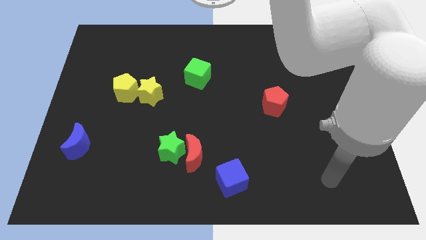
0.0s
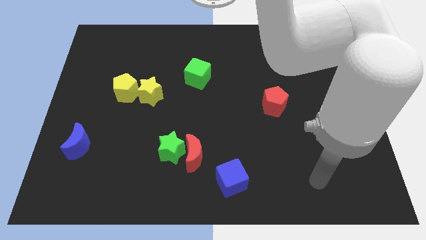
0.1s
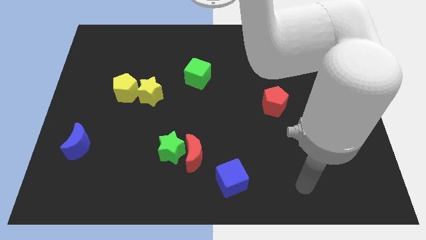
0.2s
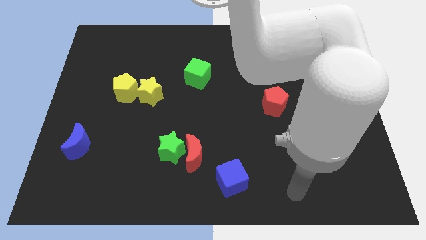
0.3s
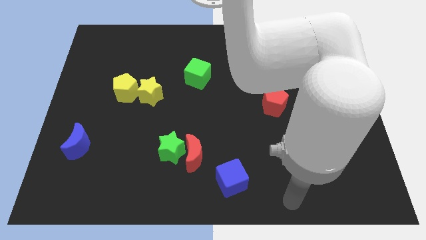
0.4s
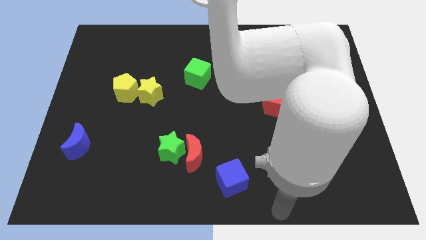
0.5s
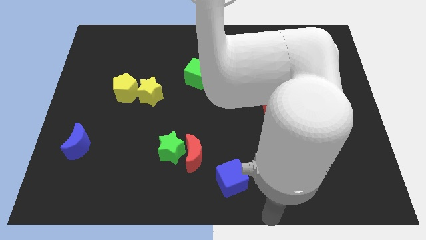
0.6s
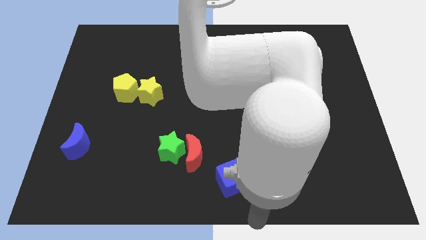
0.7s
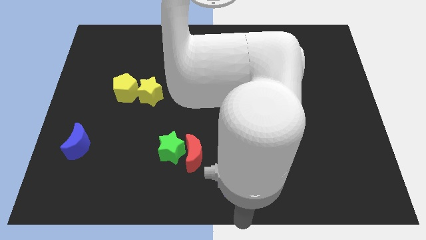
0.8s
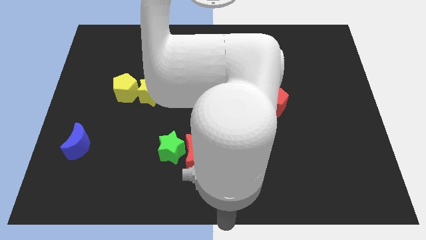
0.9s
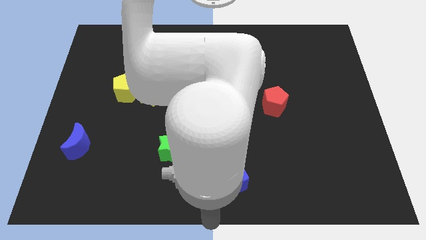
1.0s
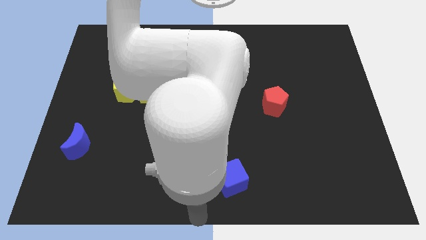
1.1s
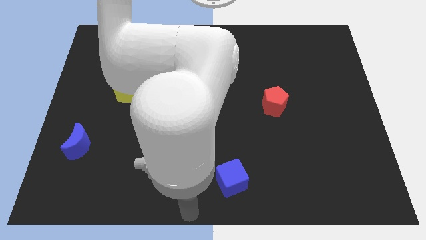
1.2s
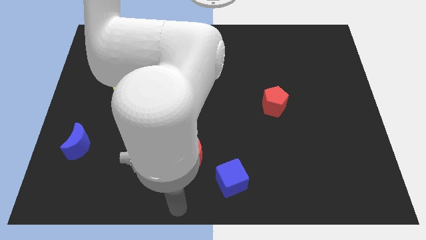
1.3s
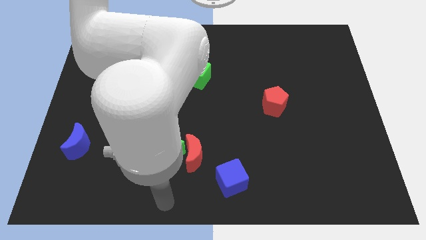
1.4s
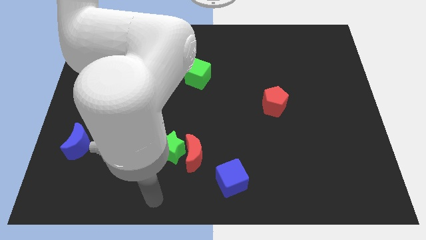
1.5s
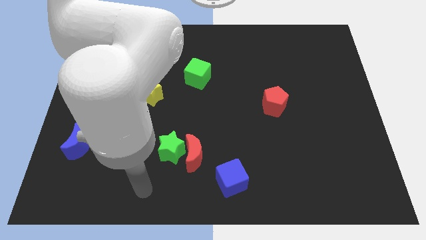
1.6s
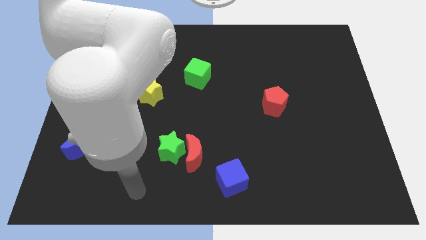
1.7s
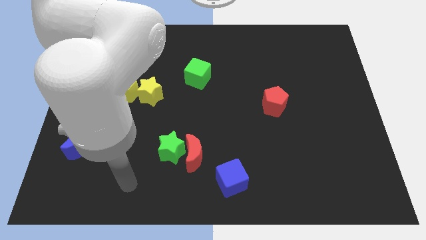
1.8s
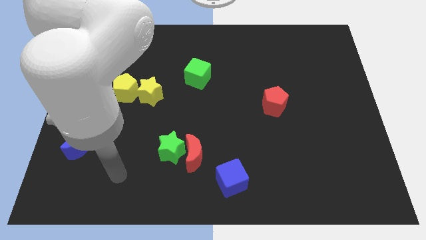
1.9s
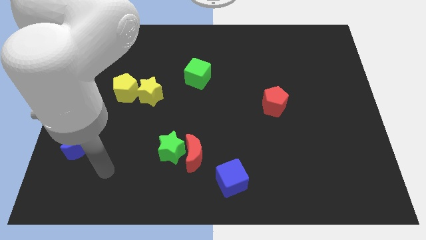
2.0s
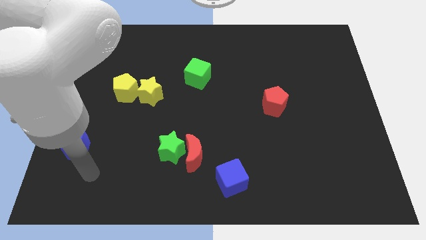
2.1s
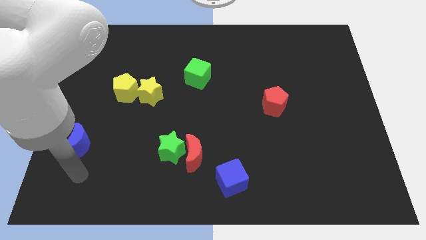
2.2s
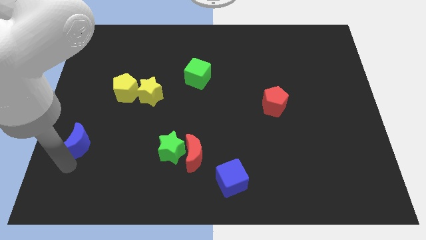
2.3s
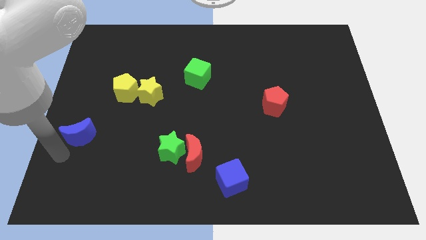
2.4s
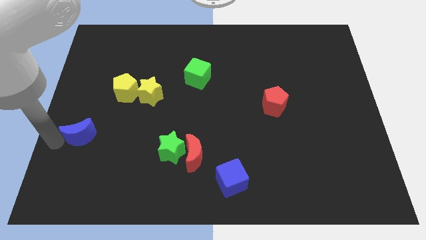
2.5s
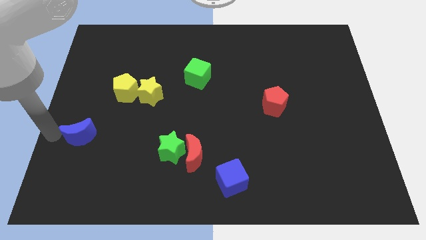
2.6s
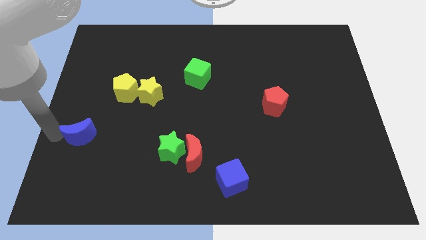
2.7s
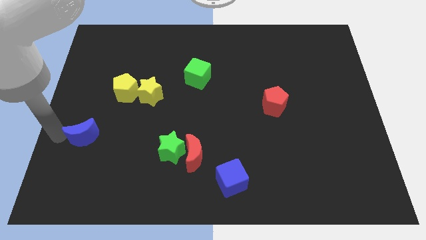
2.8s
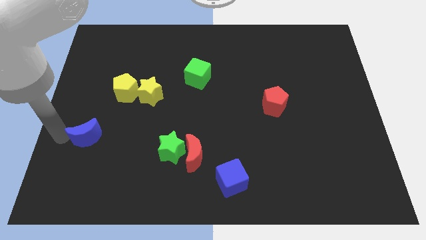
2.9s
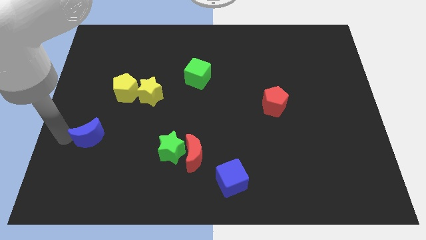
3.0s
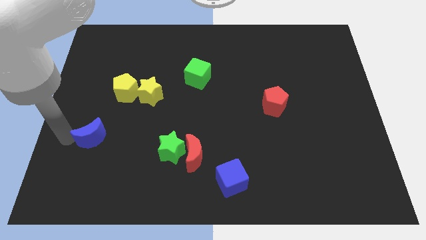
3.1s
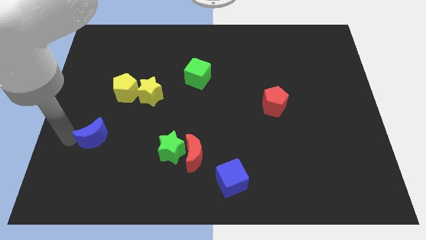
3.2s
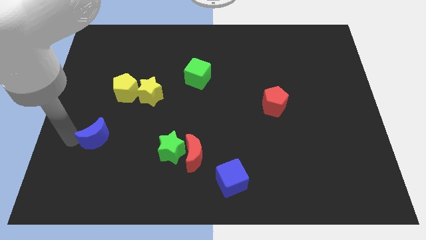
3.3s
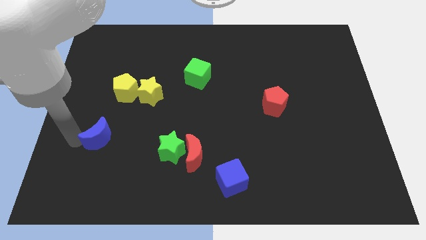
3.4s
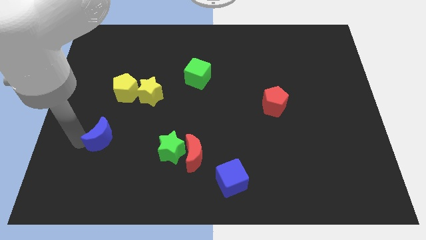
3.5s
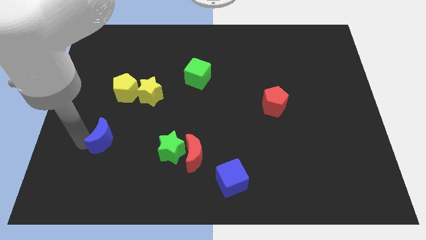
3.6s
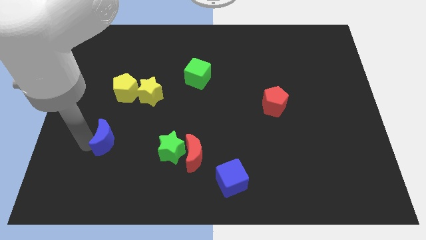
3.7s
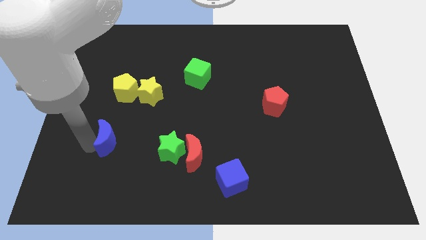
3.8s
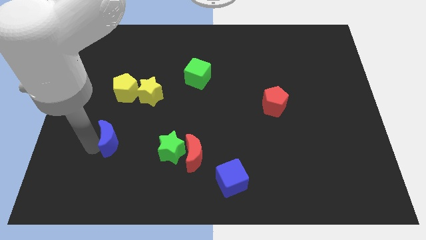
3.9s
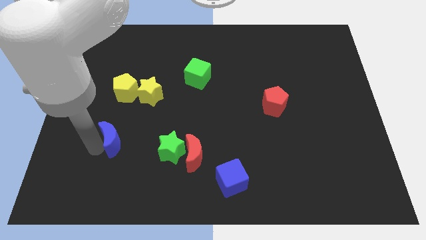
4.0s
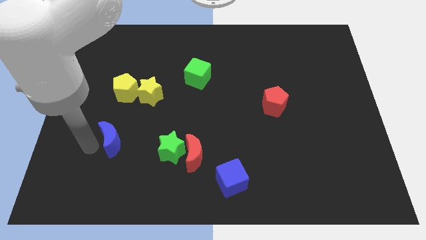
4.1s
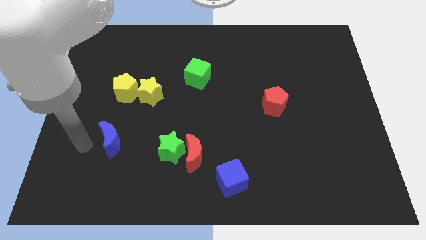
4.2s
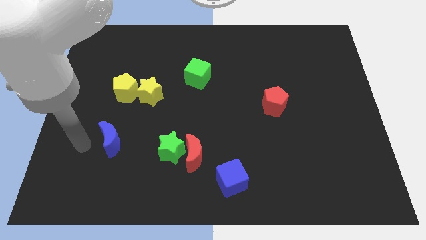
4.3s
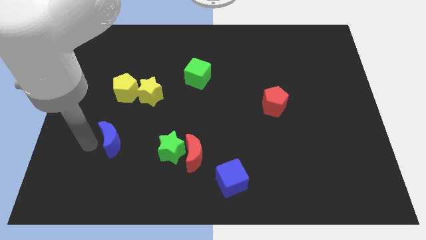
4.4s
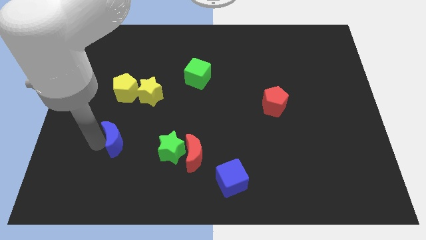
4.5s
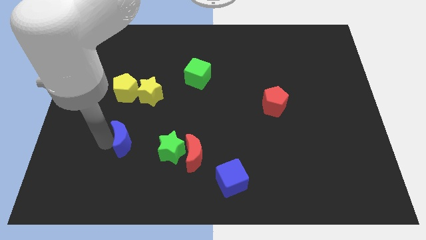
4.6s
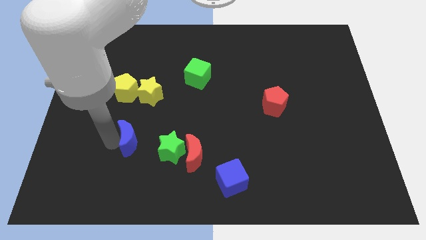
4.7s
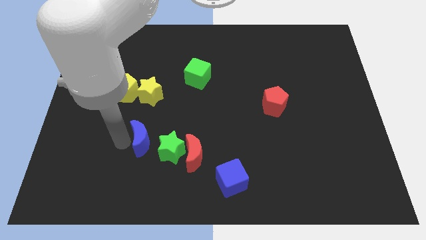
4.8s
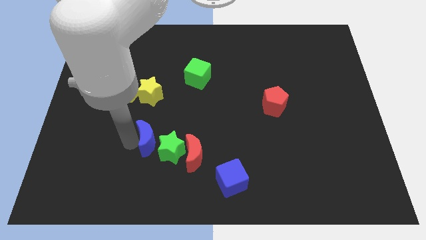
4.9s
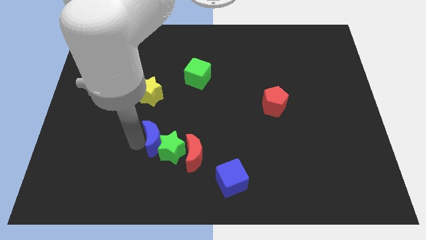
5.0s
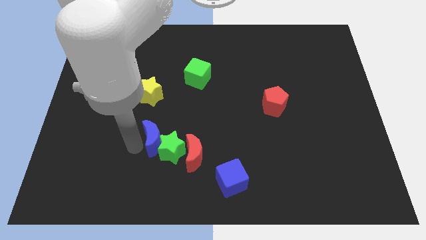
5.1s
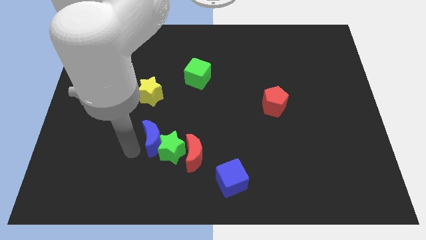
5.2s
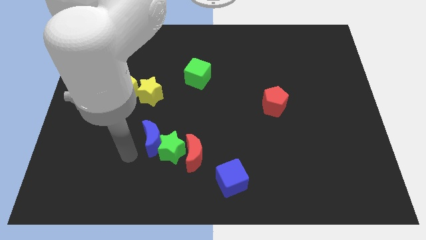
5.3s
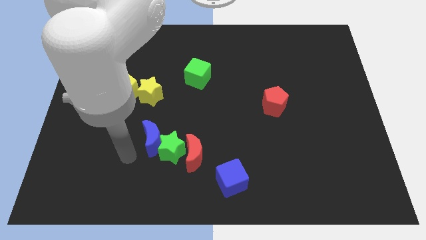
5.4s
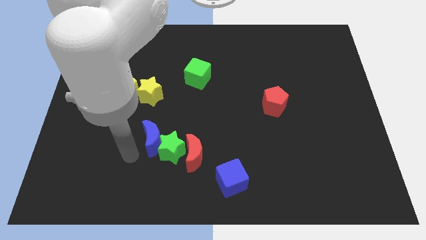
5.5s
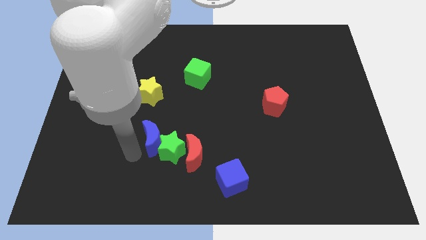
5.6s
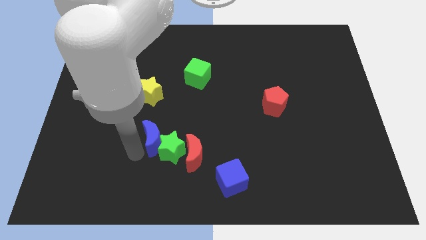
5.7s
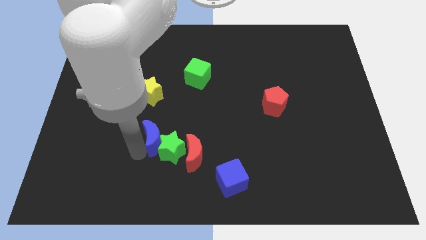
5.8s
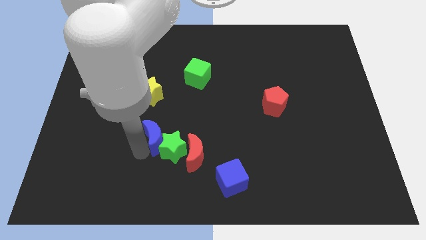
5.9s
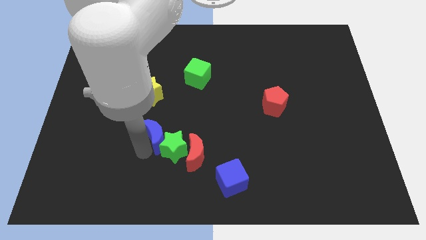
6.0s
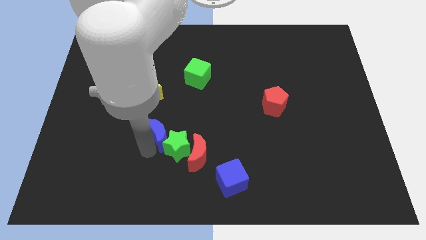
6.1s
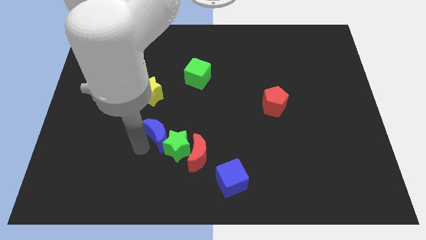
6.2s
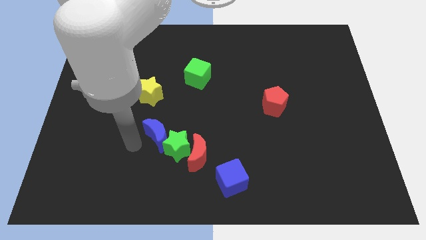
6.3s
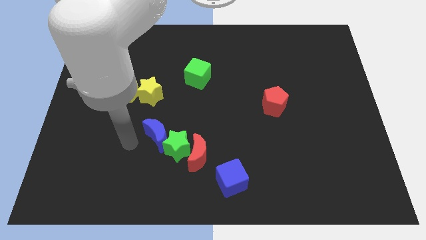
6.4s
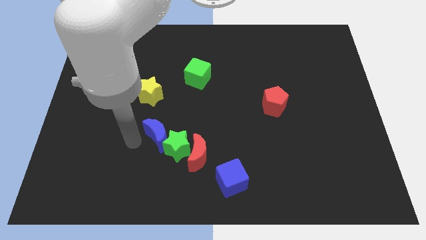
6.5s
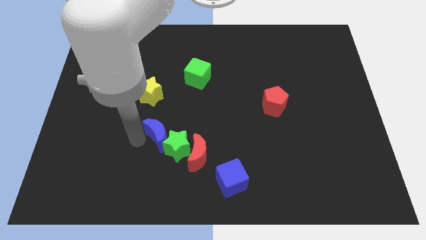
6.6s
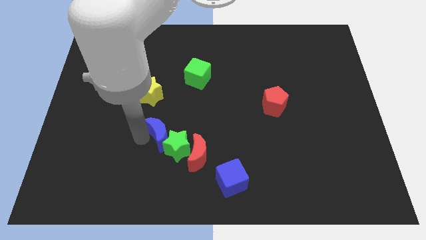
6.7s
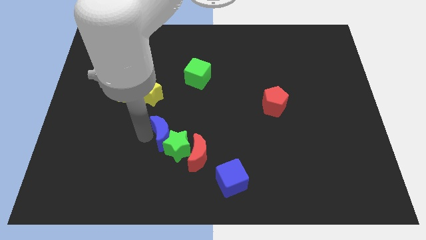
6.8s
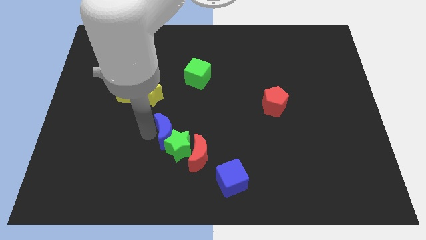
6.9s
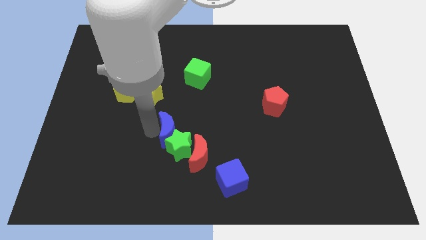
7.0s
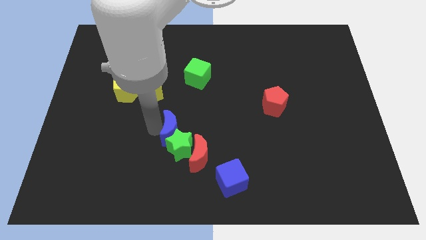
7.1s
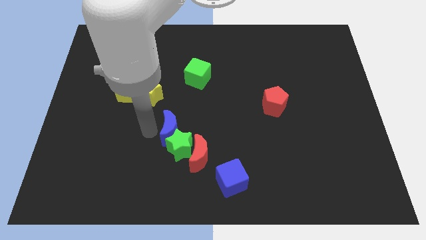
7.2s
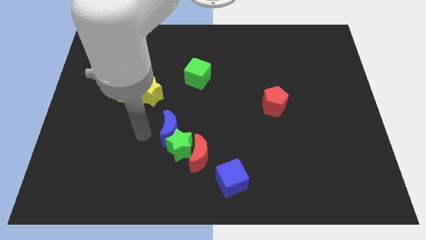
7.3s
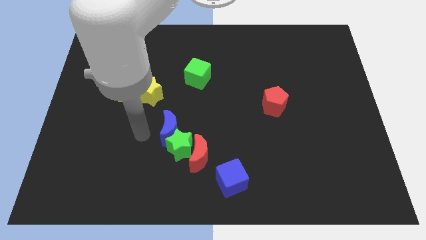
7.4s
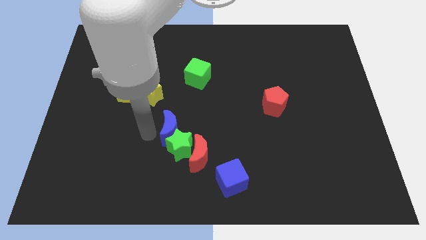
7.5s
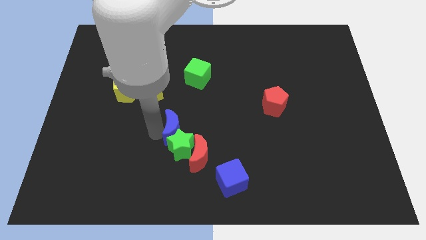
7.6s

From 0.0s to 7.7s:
push the blue moon to the top right of the green star
